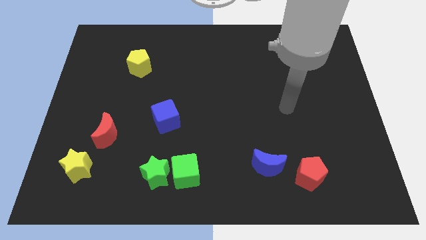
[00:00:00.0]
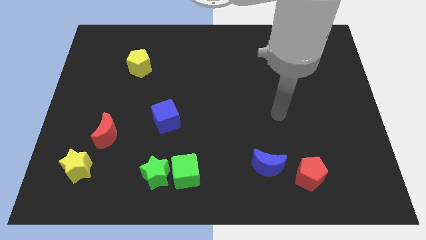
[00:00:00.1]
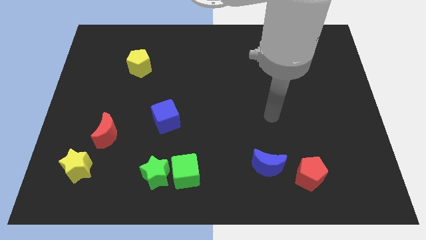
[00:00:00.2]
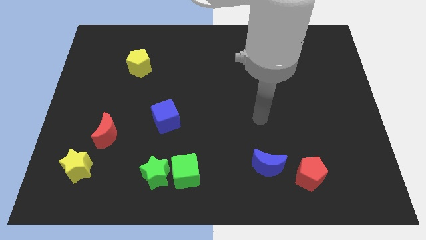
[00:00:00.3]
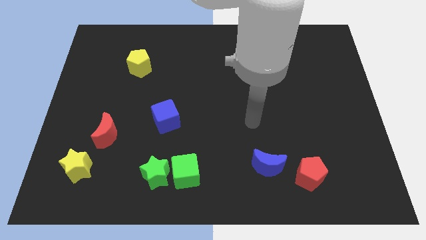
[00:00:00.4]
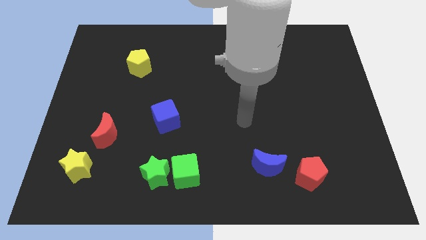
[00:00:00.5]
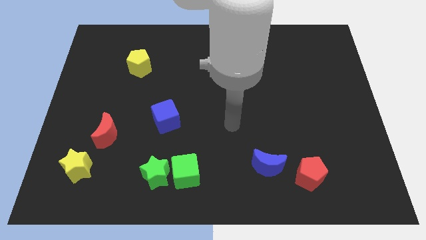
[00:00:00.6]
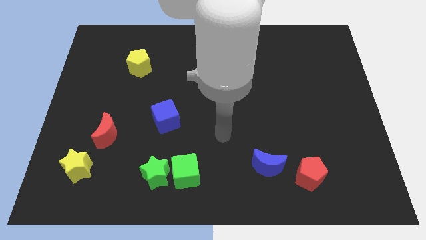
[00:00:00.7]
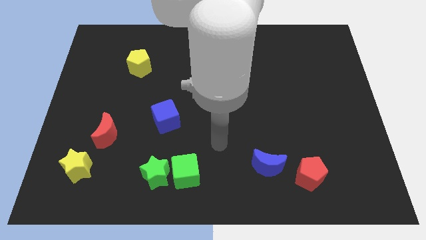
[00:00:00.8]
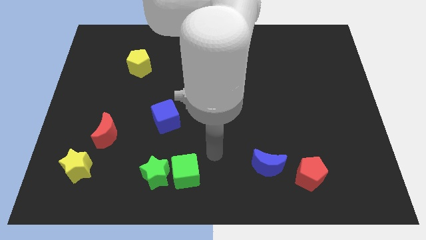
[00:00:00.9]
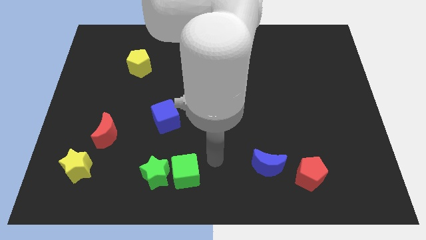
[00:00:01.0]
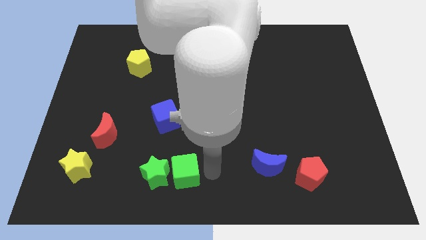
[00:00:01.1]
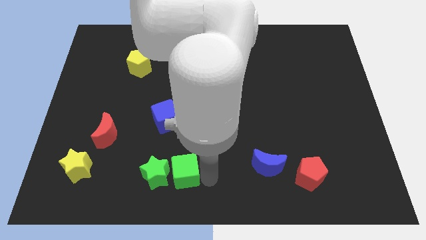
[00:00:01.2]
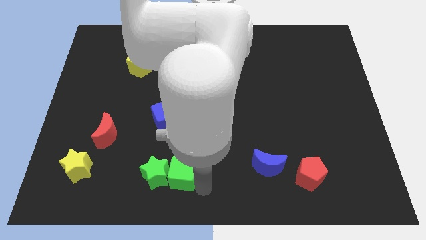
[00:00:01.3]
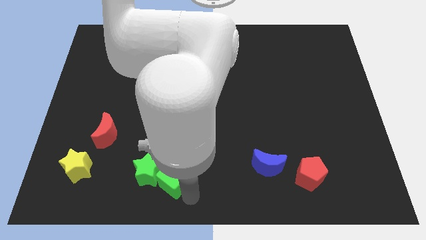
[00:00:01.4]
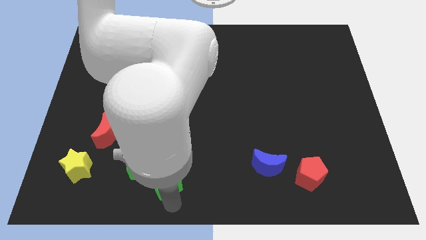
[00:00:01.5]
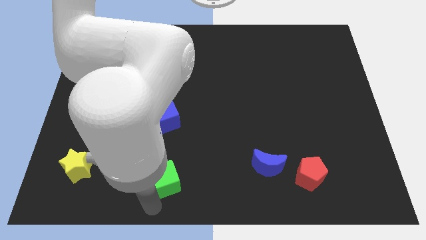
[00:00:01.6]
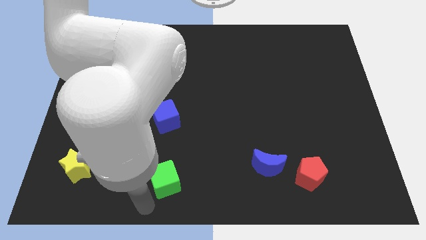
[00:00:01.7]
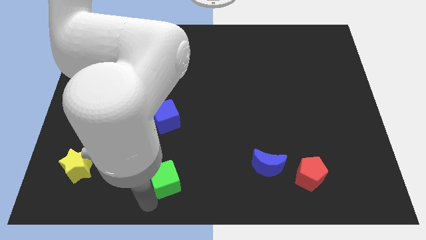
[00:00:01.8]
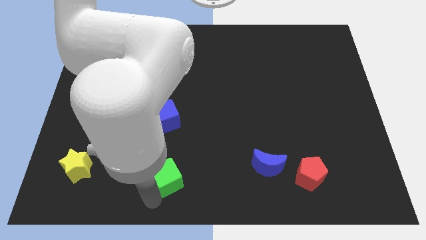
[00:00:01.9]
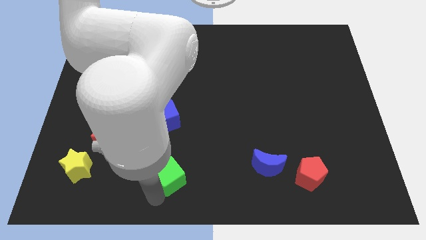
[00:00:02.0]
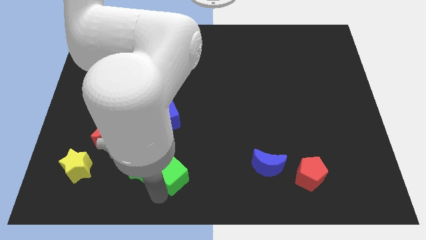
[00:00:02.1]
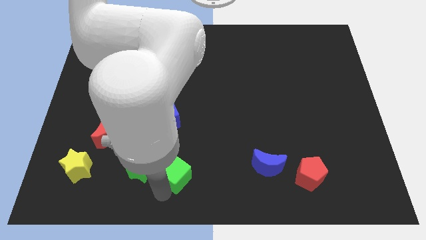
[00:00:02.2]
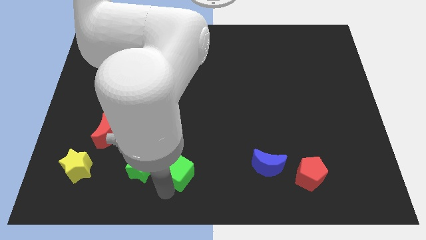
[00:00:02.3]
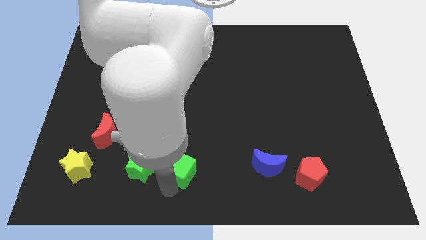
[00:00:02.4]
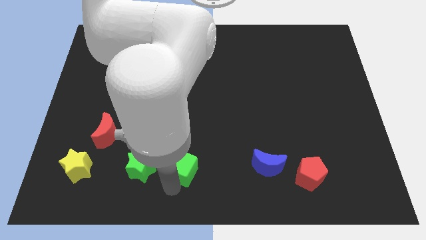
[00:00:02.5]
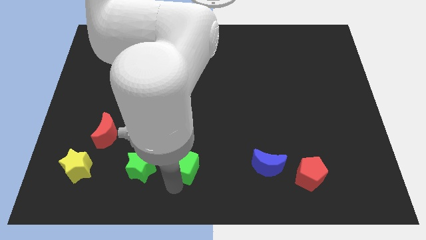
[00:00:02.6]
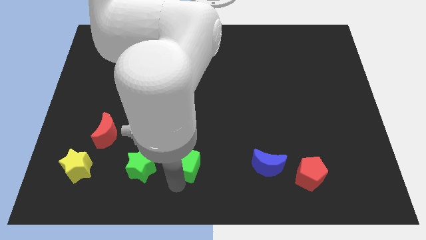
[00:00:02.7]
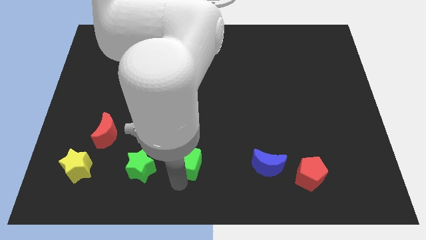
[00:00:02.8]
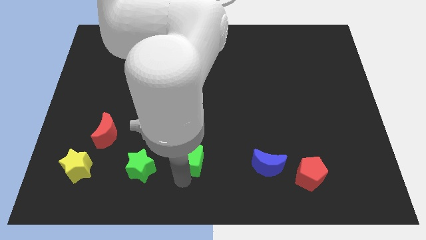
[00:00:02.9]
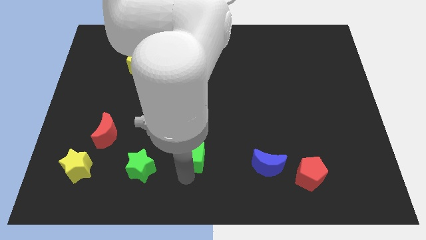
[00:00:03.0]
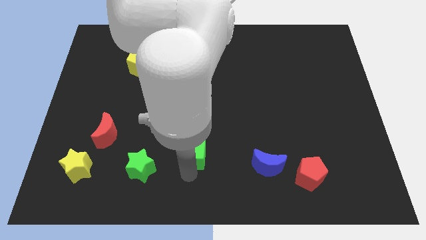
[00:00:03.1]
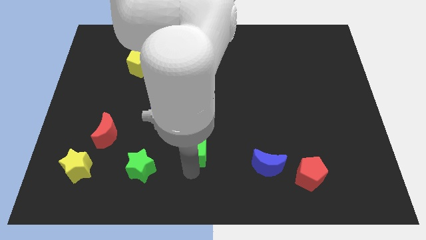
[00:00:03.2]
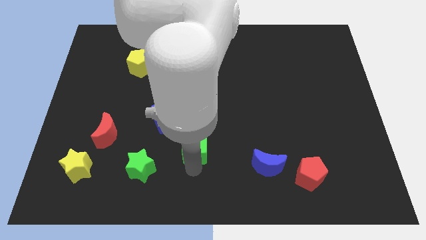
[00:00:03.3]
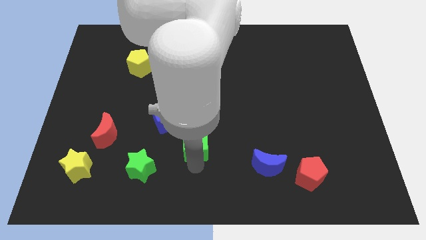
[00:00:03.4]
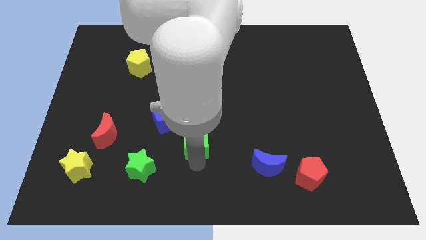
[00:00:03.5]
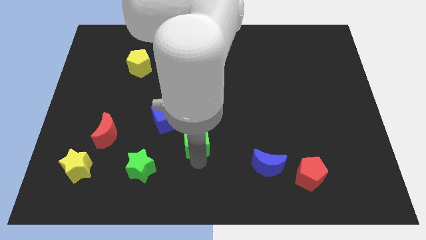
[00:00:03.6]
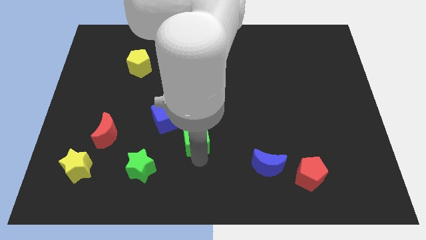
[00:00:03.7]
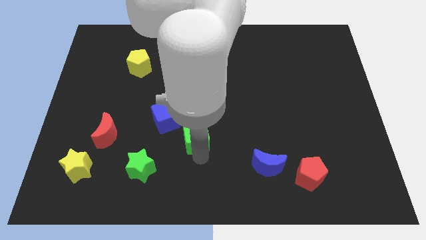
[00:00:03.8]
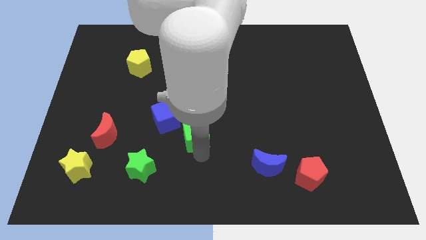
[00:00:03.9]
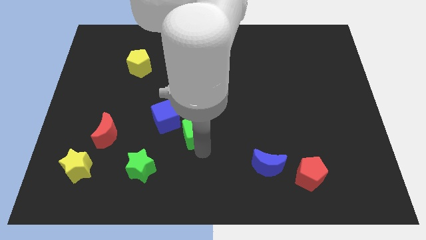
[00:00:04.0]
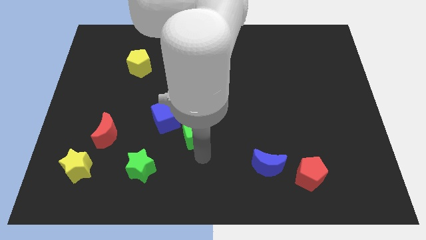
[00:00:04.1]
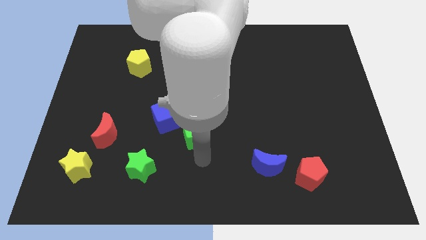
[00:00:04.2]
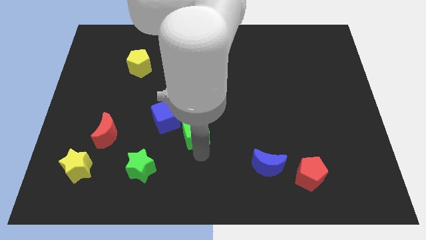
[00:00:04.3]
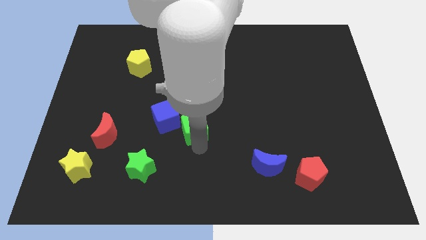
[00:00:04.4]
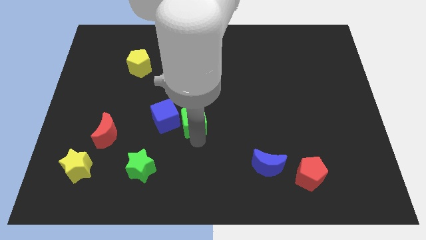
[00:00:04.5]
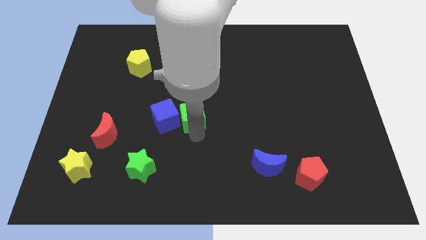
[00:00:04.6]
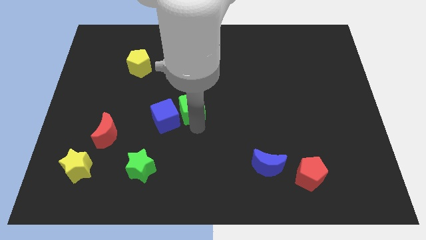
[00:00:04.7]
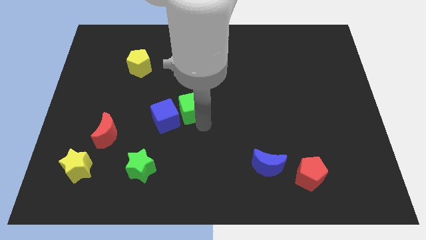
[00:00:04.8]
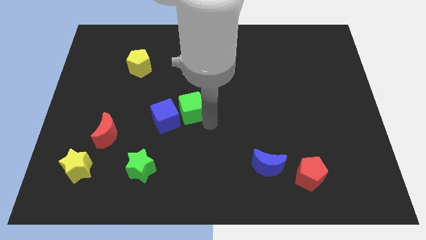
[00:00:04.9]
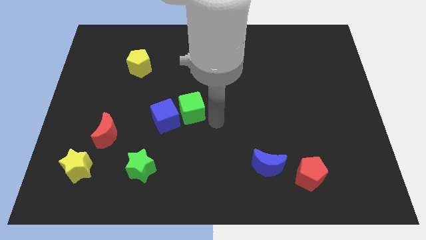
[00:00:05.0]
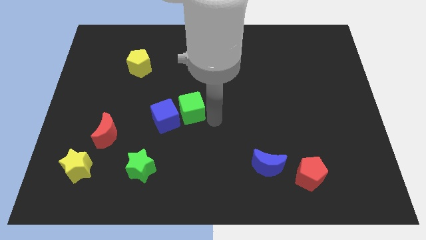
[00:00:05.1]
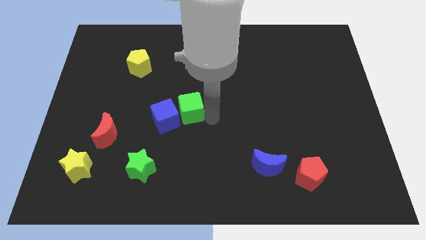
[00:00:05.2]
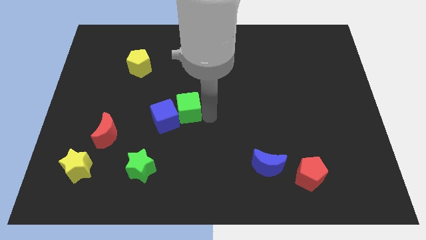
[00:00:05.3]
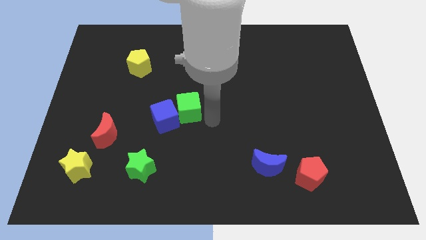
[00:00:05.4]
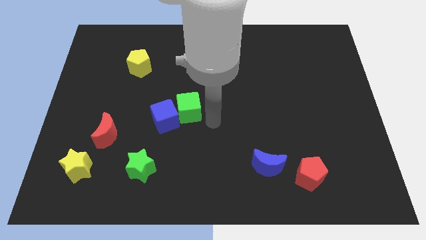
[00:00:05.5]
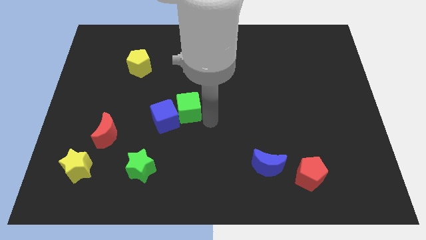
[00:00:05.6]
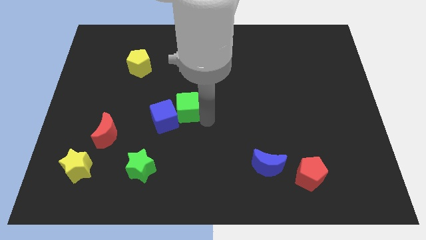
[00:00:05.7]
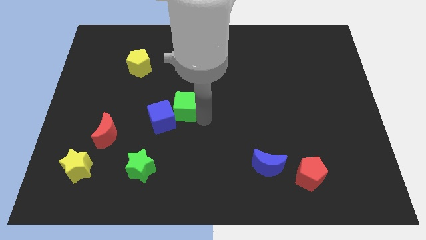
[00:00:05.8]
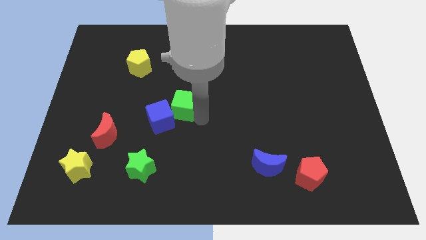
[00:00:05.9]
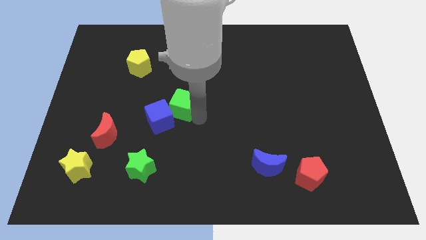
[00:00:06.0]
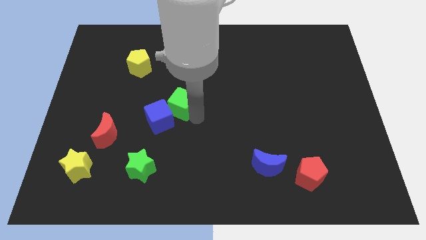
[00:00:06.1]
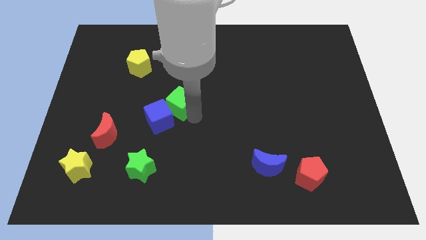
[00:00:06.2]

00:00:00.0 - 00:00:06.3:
move the green cube to the top of the blue cube

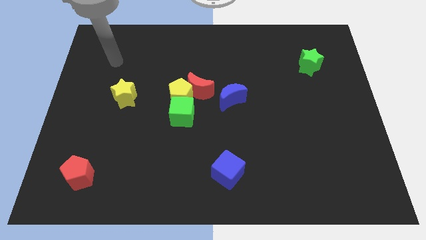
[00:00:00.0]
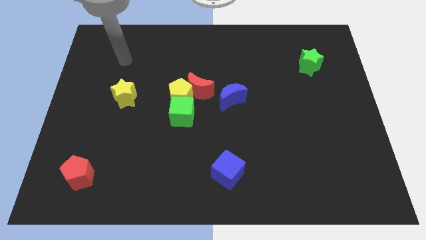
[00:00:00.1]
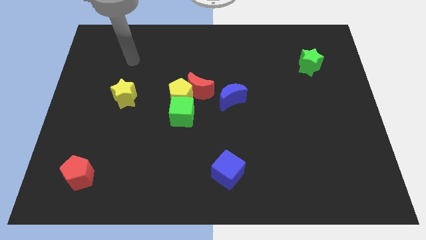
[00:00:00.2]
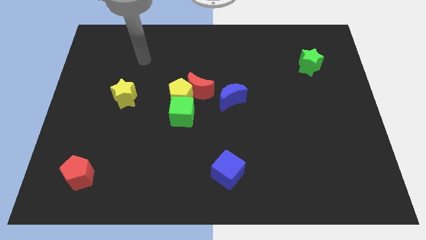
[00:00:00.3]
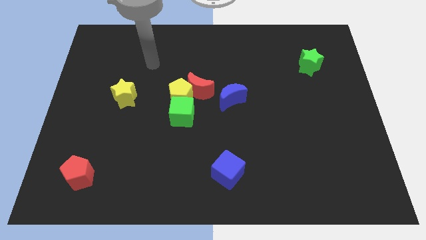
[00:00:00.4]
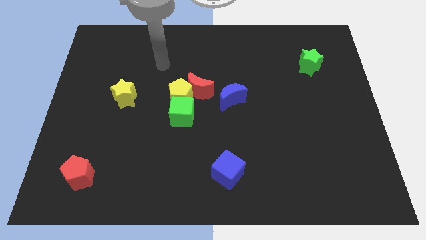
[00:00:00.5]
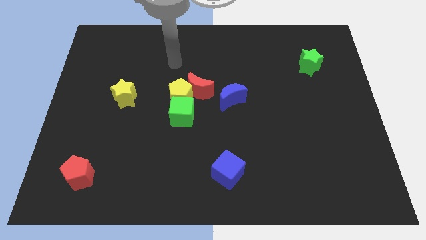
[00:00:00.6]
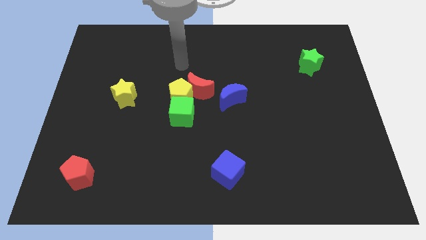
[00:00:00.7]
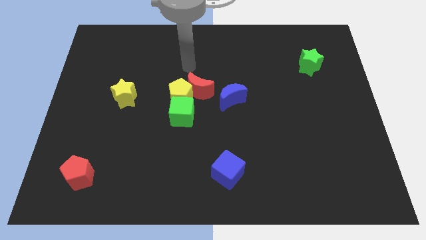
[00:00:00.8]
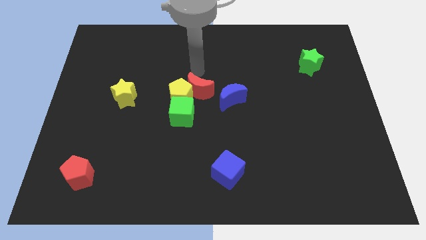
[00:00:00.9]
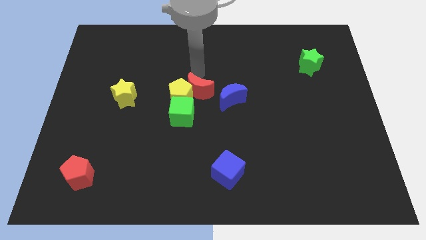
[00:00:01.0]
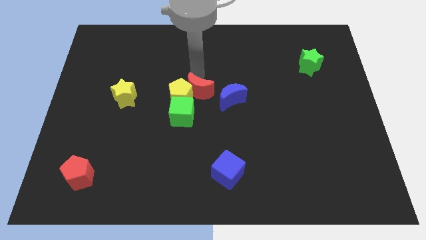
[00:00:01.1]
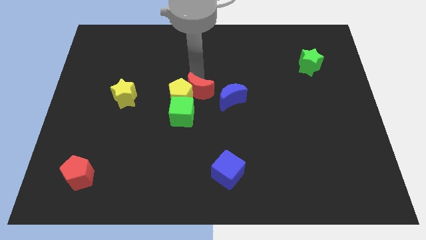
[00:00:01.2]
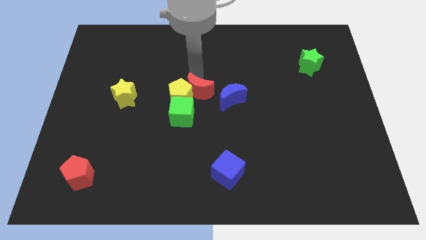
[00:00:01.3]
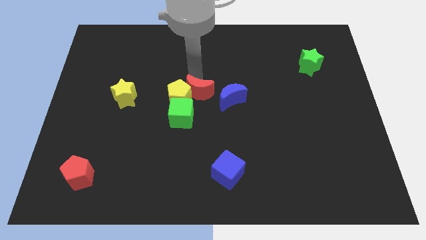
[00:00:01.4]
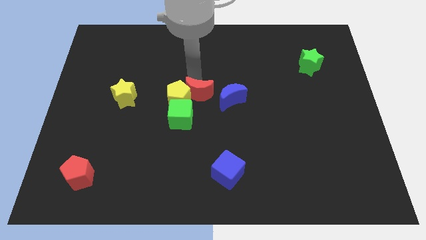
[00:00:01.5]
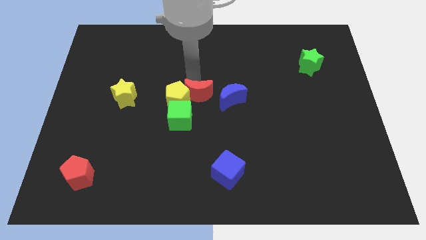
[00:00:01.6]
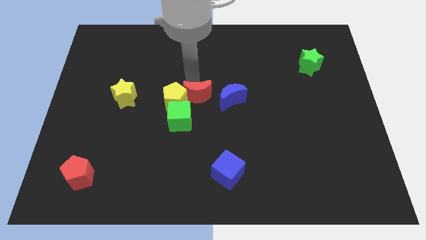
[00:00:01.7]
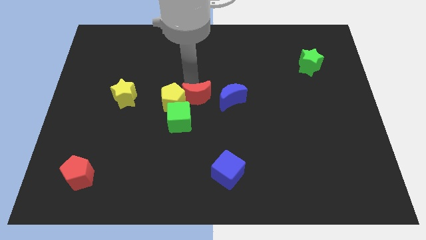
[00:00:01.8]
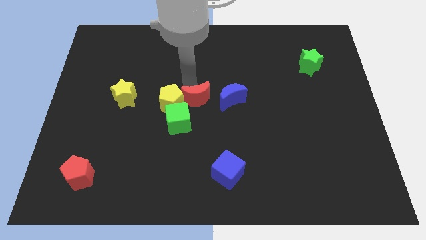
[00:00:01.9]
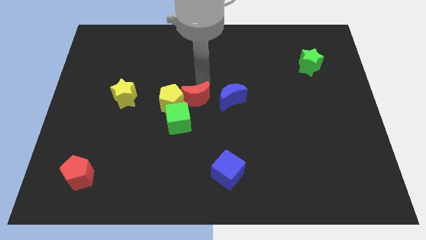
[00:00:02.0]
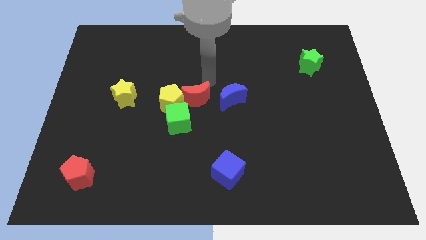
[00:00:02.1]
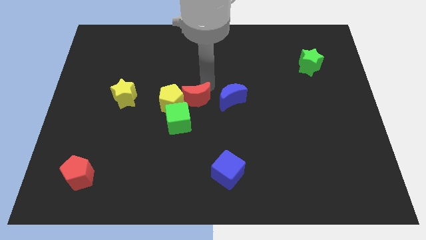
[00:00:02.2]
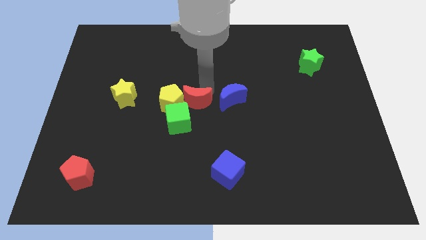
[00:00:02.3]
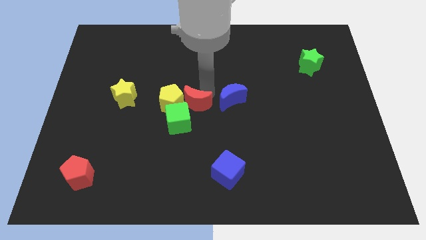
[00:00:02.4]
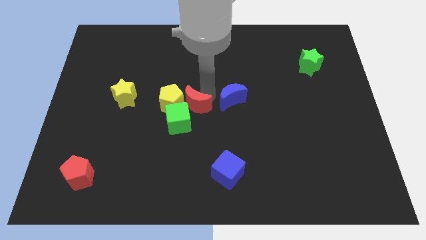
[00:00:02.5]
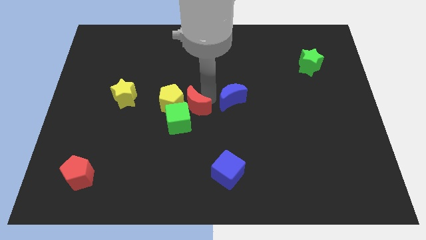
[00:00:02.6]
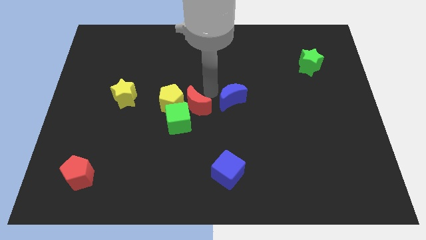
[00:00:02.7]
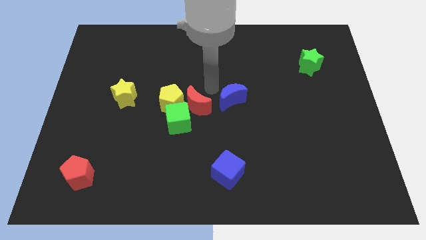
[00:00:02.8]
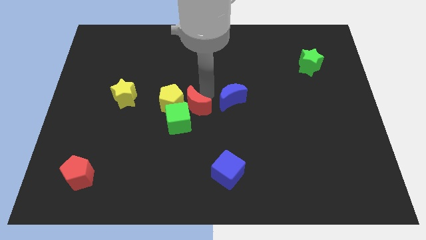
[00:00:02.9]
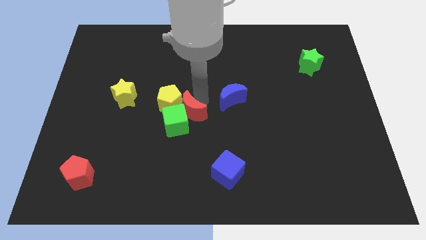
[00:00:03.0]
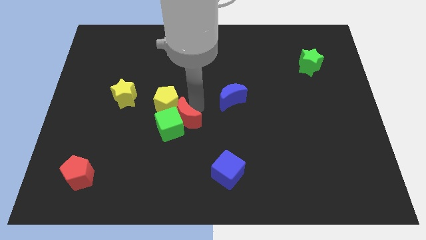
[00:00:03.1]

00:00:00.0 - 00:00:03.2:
push the red moon to the bottom of the yellow pentagon
